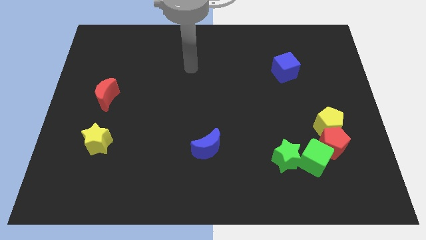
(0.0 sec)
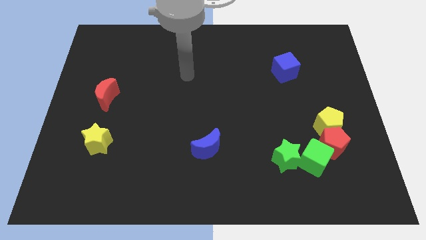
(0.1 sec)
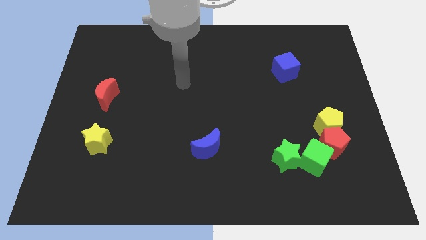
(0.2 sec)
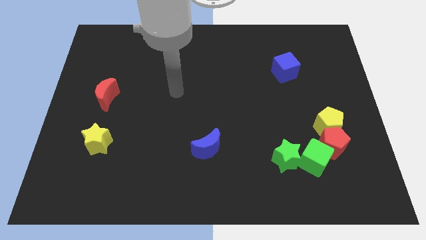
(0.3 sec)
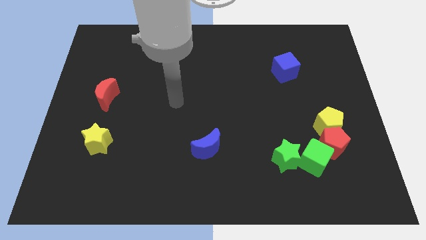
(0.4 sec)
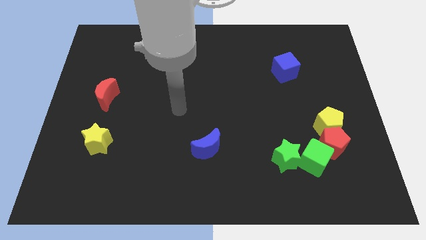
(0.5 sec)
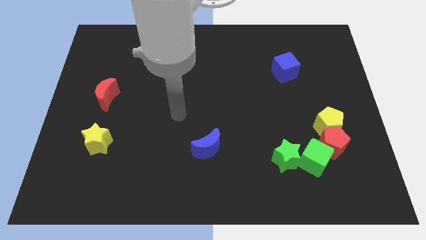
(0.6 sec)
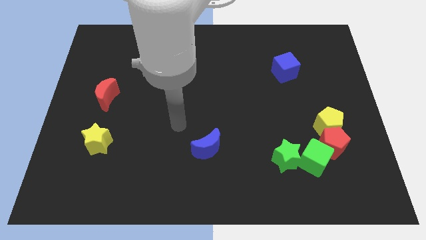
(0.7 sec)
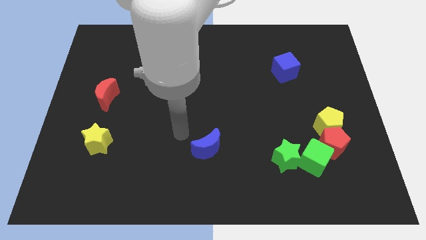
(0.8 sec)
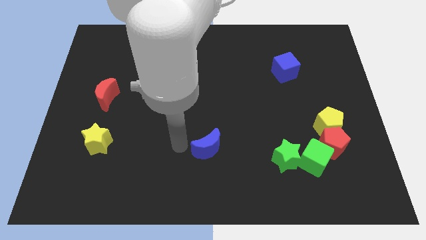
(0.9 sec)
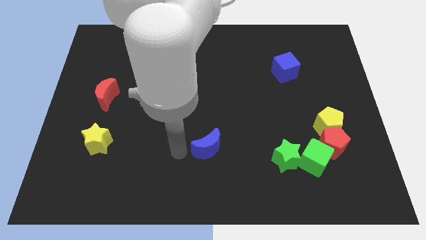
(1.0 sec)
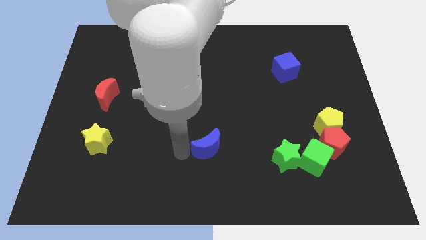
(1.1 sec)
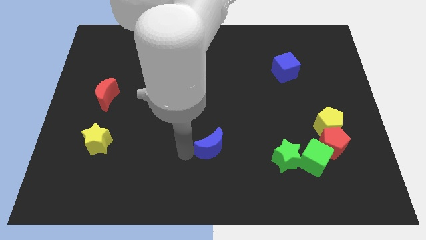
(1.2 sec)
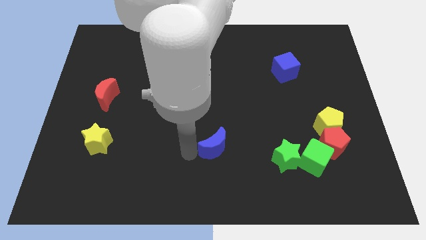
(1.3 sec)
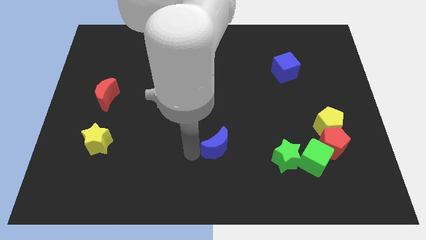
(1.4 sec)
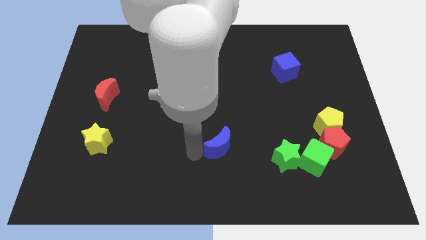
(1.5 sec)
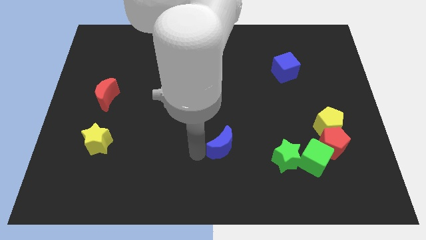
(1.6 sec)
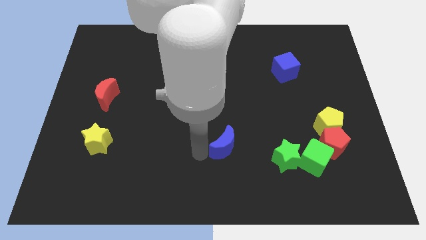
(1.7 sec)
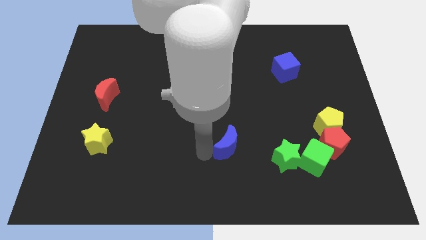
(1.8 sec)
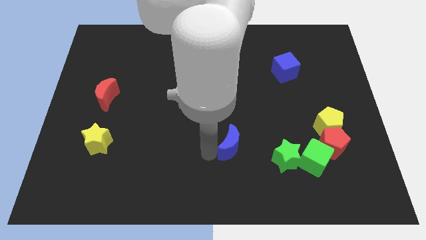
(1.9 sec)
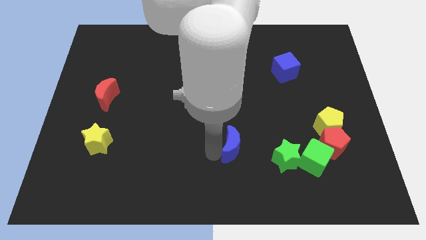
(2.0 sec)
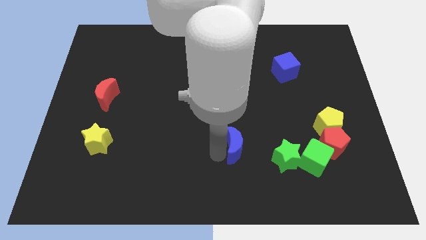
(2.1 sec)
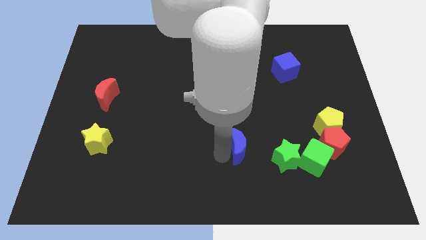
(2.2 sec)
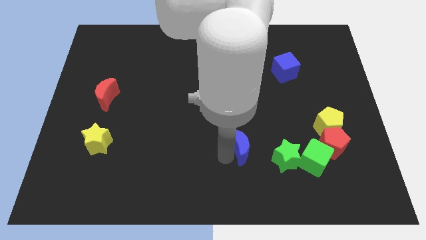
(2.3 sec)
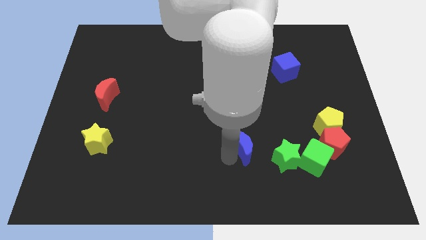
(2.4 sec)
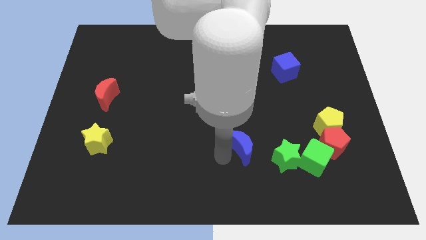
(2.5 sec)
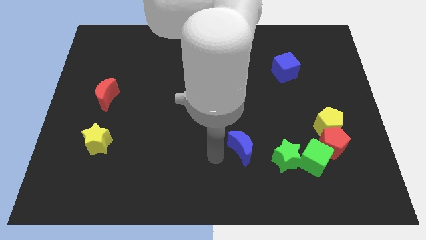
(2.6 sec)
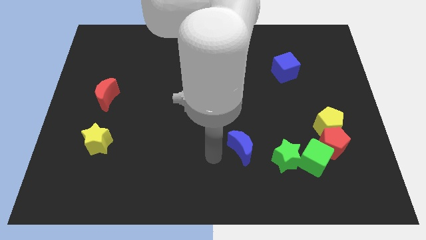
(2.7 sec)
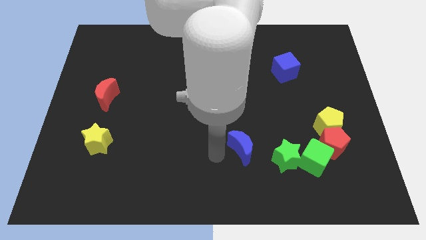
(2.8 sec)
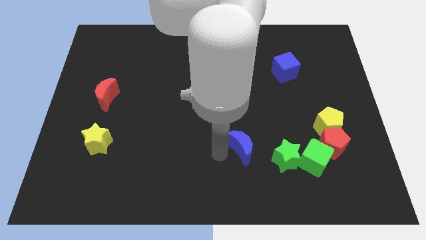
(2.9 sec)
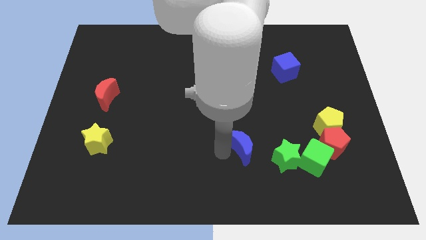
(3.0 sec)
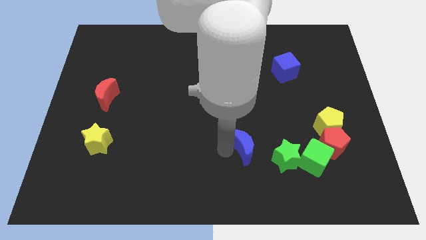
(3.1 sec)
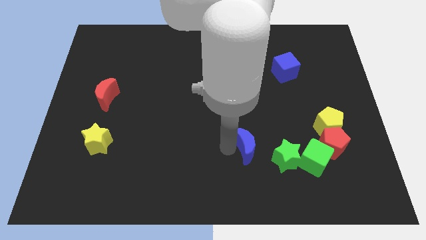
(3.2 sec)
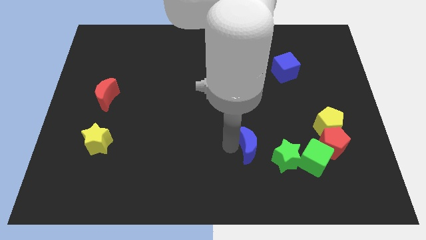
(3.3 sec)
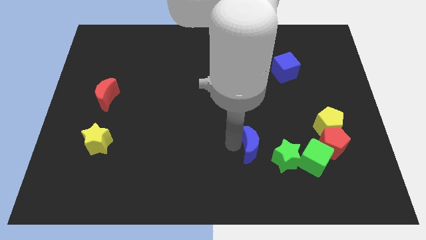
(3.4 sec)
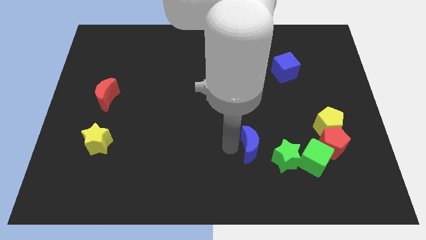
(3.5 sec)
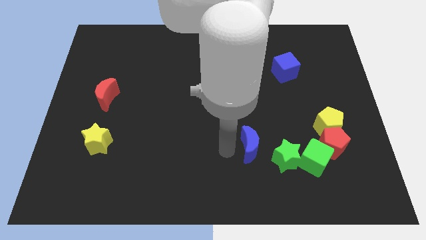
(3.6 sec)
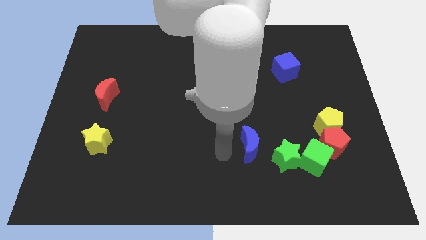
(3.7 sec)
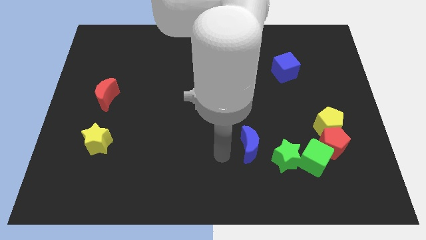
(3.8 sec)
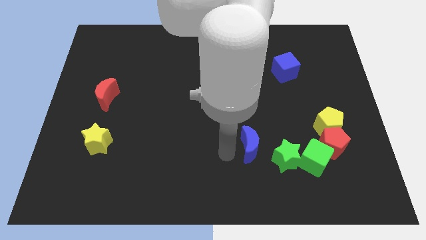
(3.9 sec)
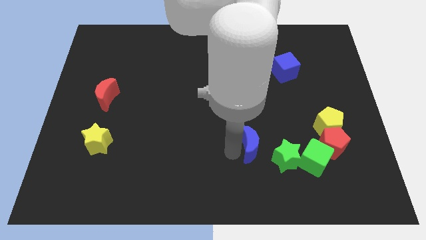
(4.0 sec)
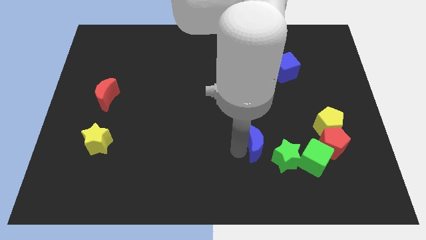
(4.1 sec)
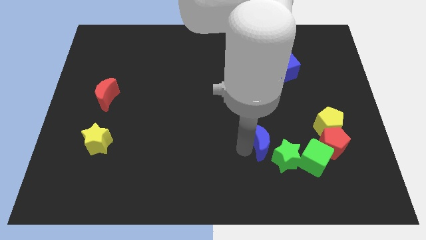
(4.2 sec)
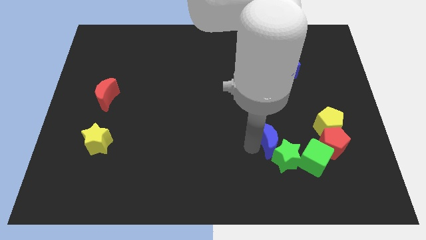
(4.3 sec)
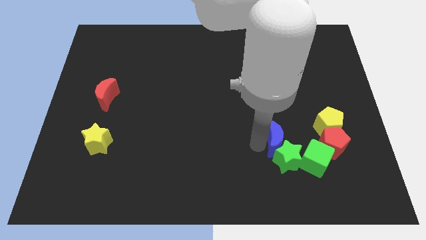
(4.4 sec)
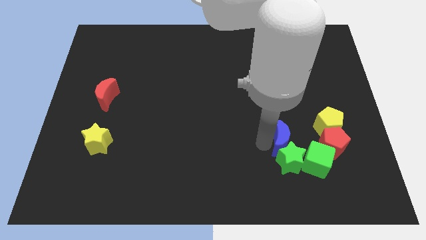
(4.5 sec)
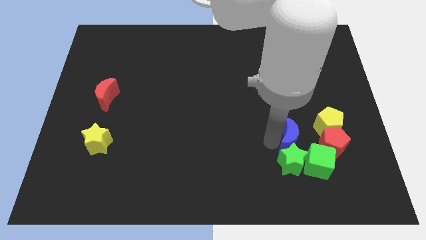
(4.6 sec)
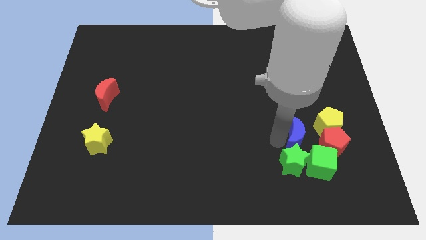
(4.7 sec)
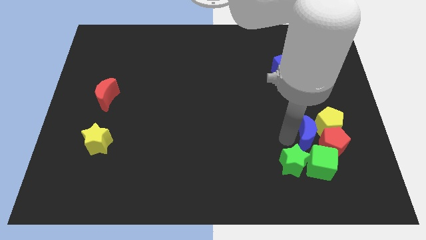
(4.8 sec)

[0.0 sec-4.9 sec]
push the blue moon towards the red pentagon

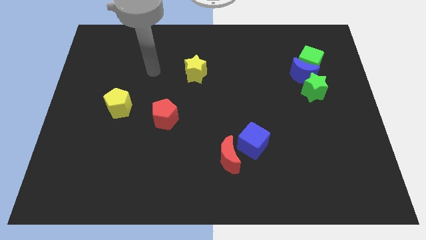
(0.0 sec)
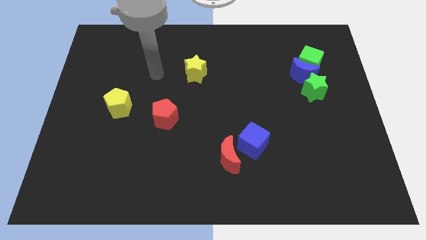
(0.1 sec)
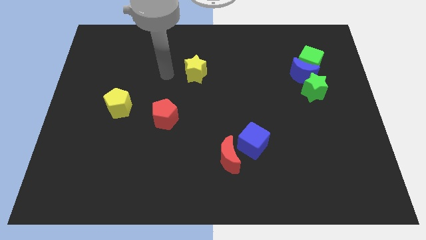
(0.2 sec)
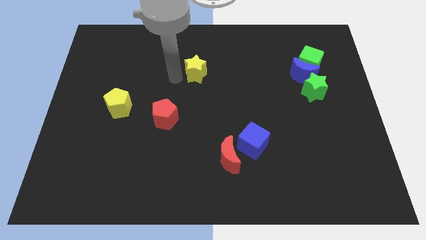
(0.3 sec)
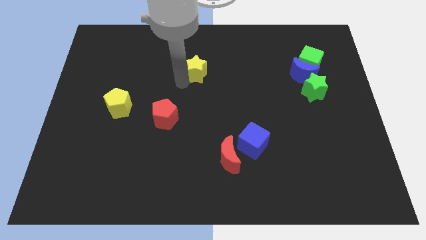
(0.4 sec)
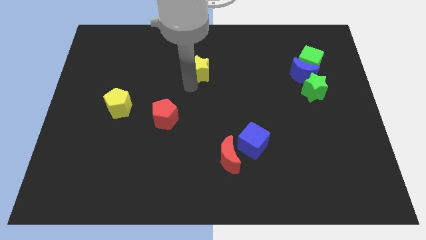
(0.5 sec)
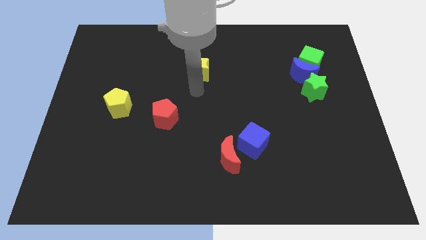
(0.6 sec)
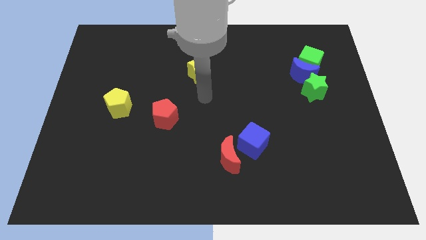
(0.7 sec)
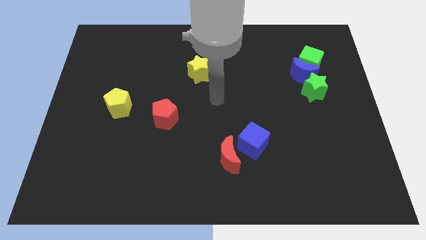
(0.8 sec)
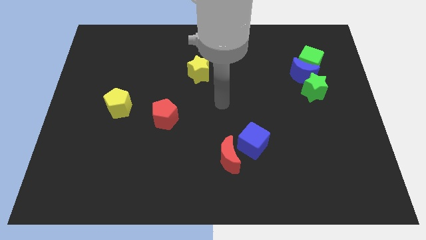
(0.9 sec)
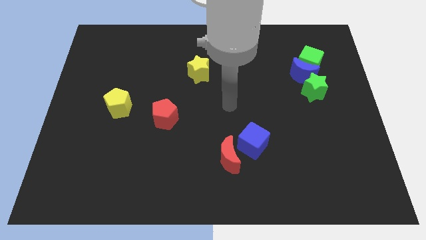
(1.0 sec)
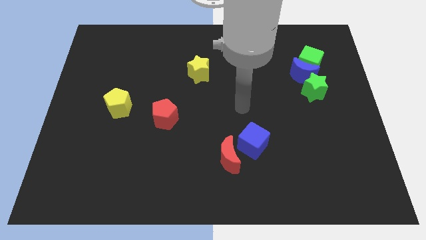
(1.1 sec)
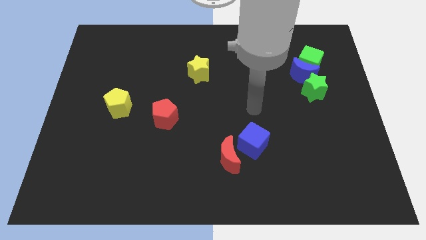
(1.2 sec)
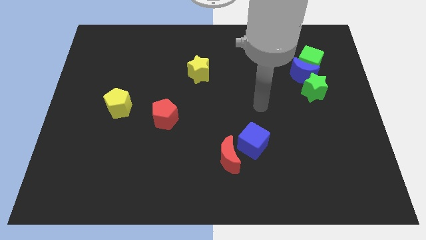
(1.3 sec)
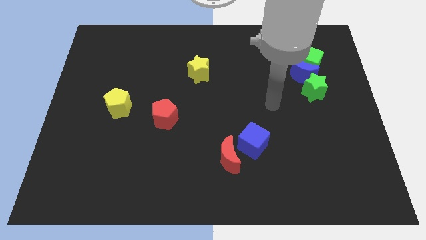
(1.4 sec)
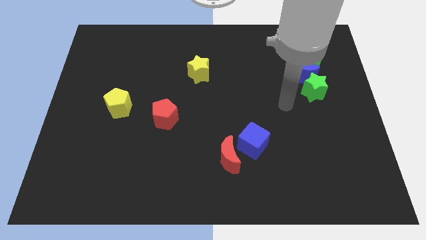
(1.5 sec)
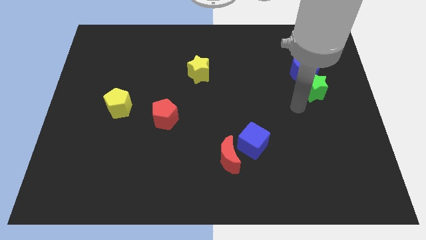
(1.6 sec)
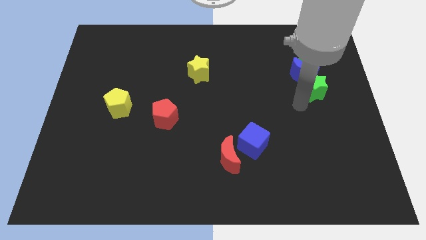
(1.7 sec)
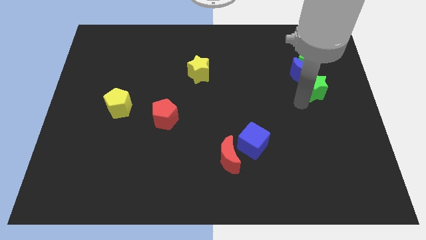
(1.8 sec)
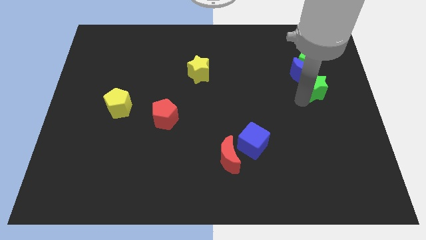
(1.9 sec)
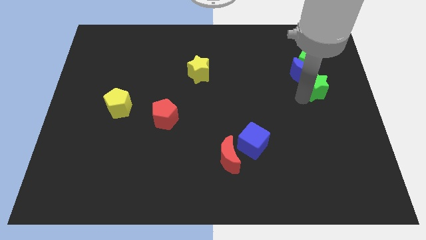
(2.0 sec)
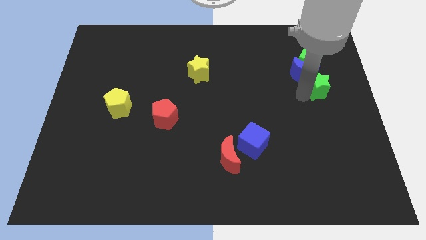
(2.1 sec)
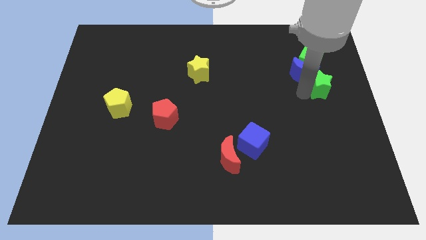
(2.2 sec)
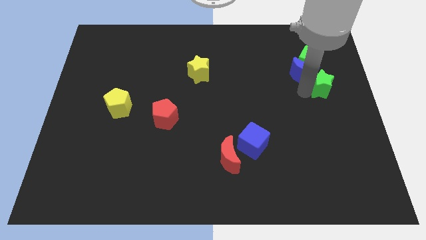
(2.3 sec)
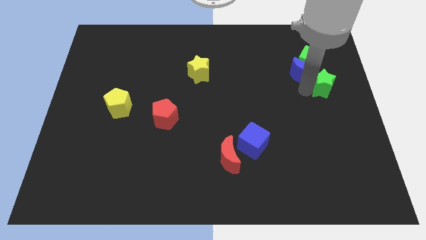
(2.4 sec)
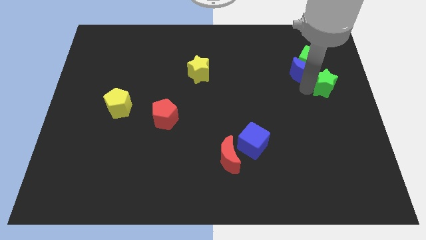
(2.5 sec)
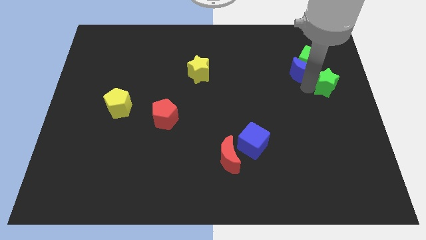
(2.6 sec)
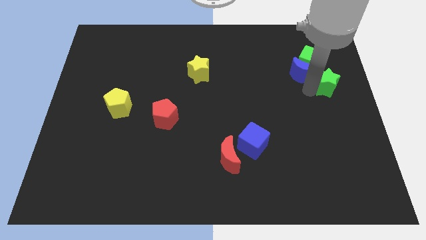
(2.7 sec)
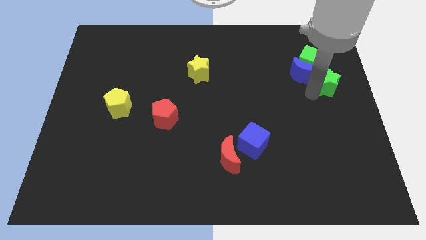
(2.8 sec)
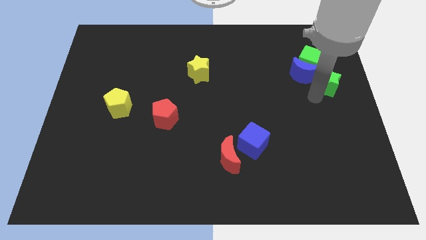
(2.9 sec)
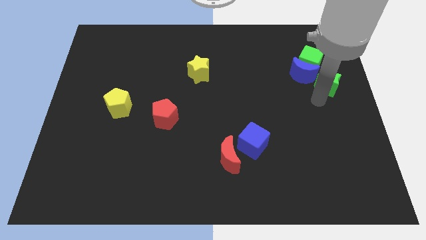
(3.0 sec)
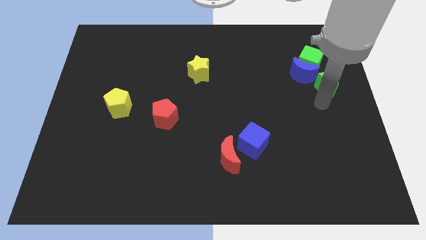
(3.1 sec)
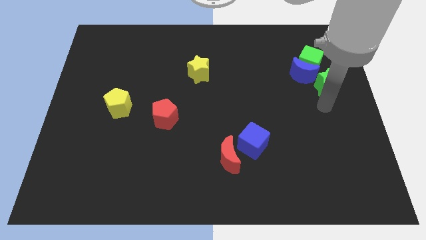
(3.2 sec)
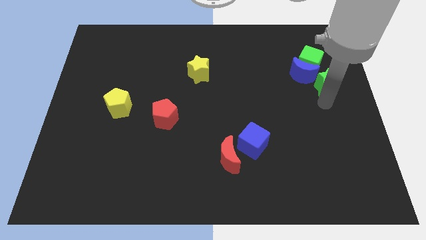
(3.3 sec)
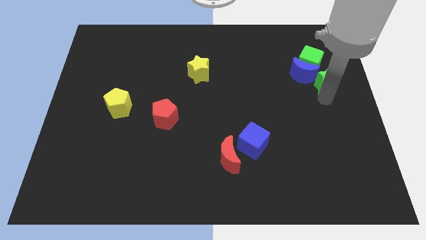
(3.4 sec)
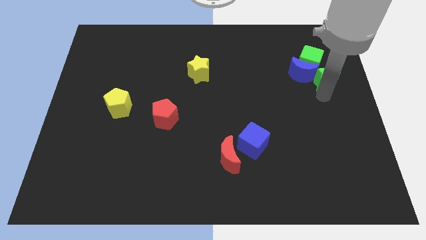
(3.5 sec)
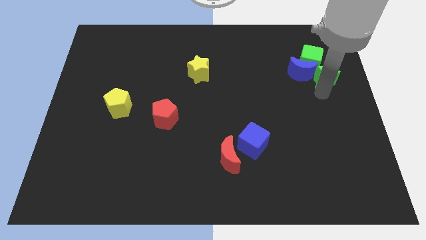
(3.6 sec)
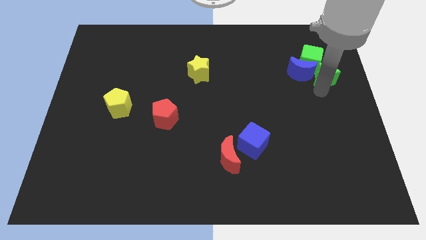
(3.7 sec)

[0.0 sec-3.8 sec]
push the green star to the green cube
